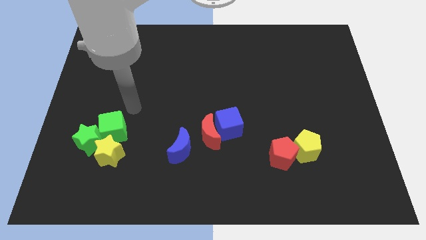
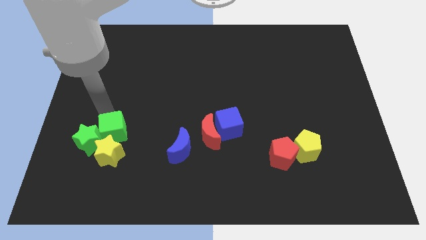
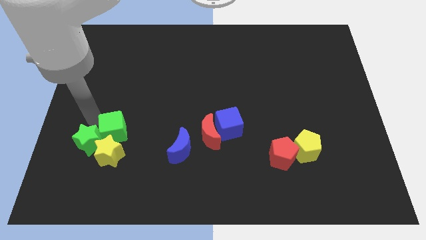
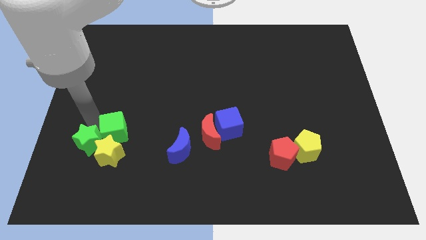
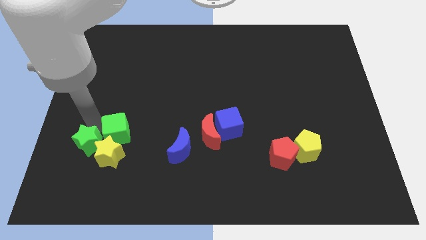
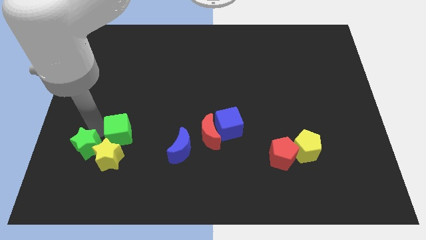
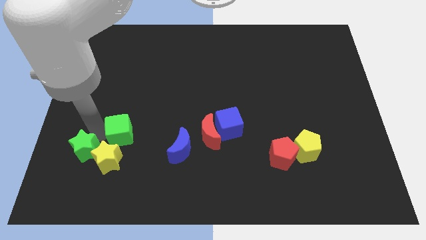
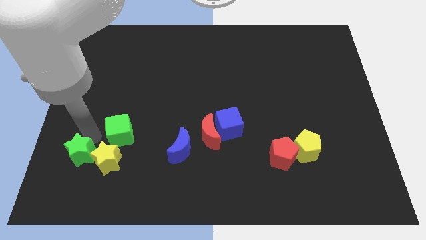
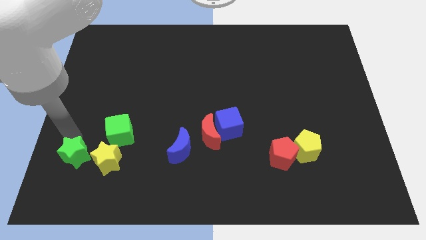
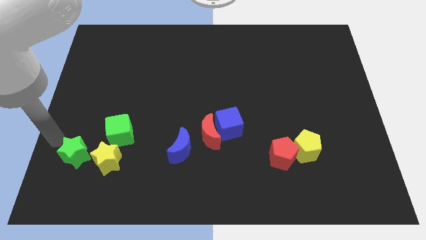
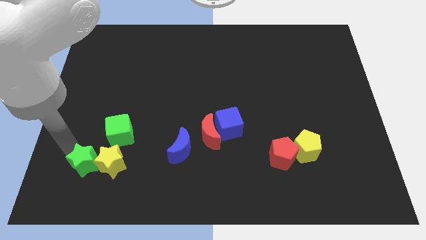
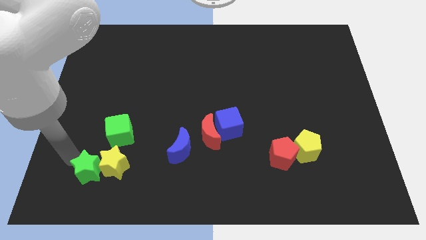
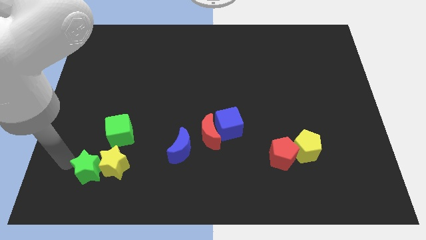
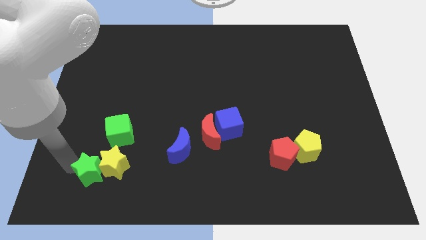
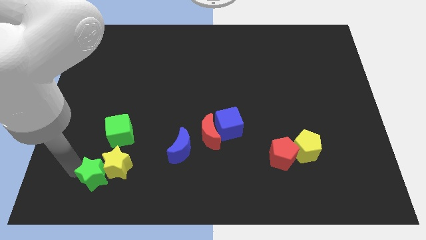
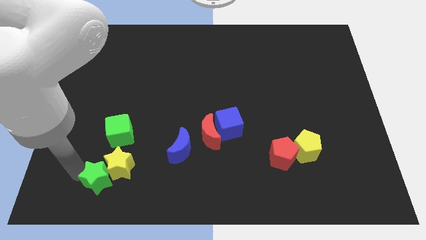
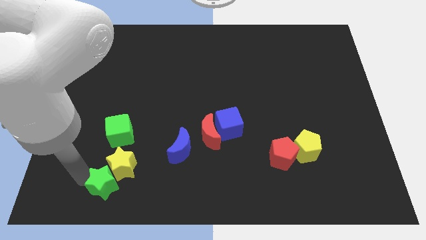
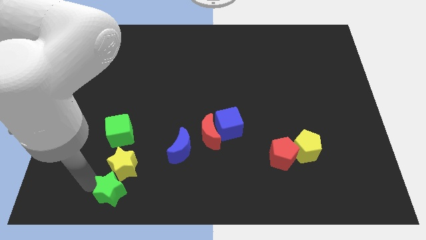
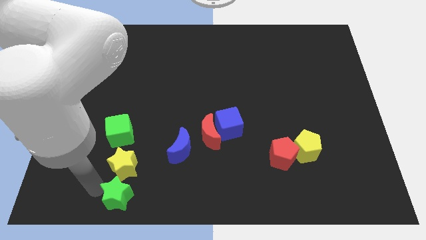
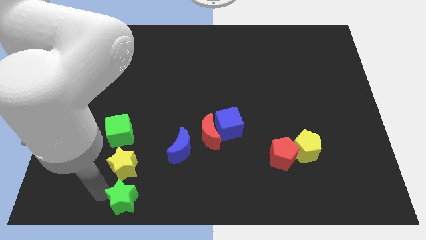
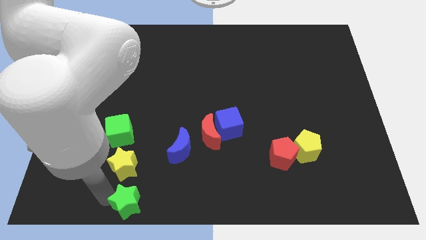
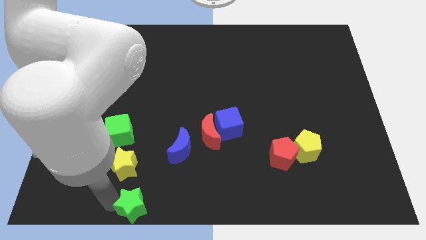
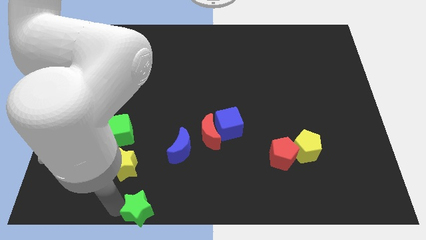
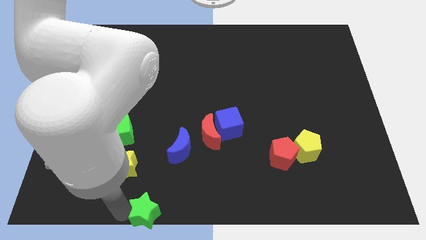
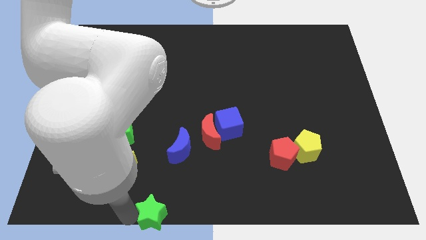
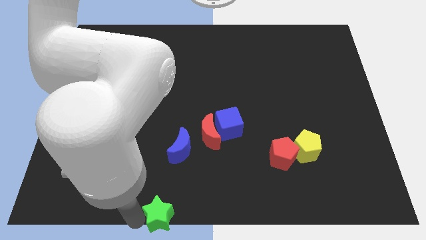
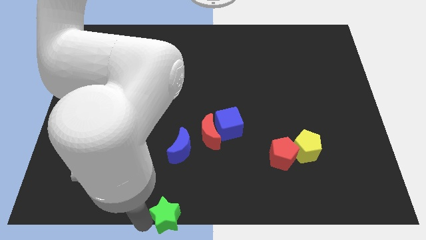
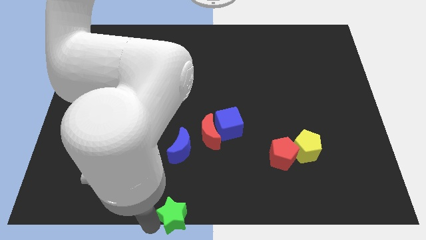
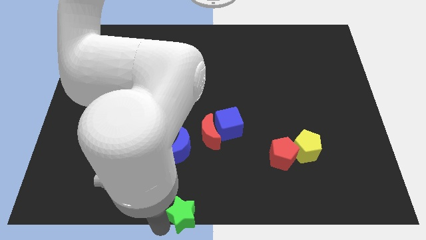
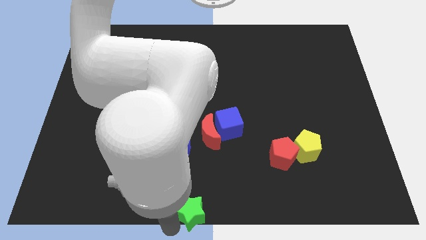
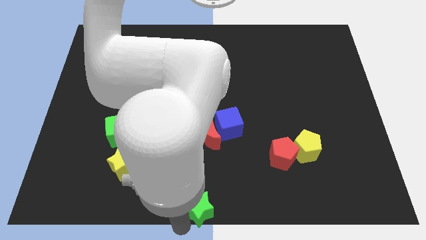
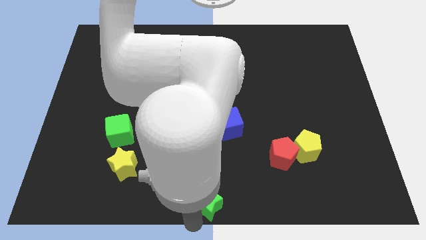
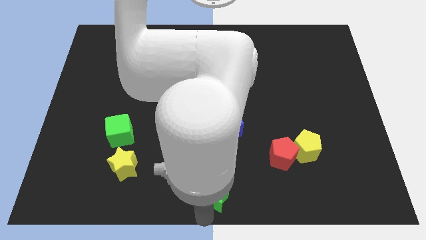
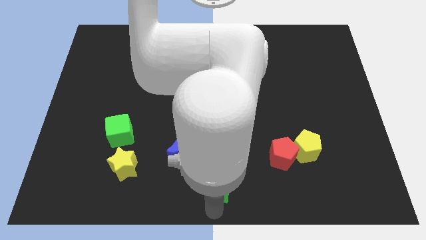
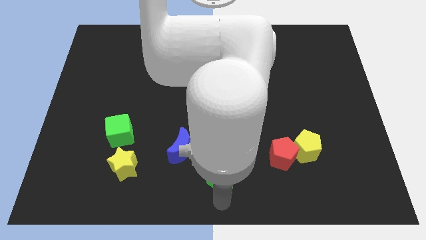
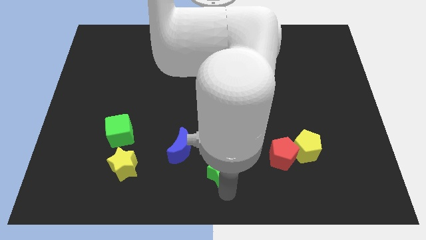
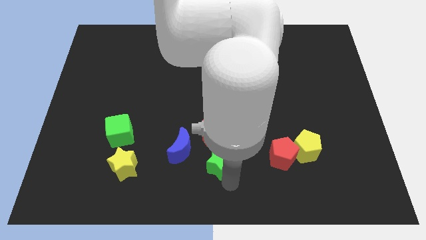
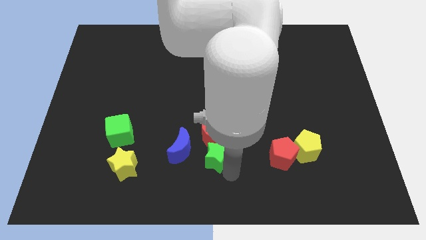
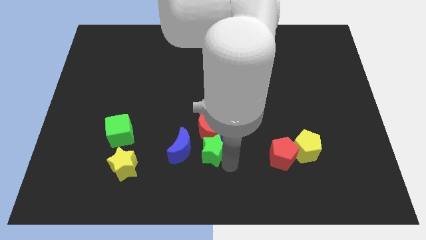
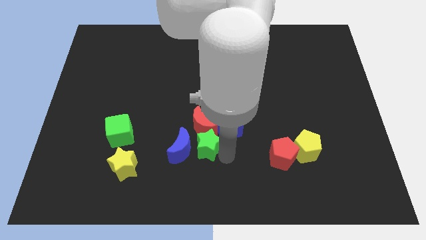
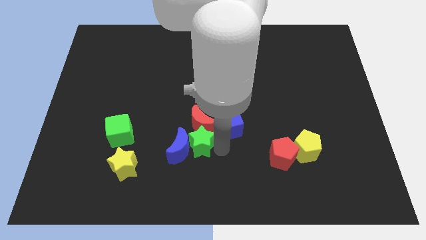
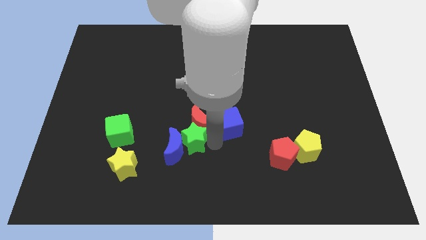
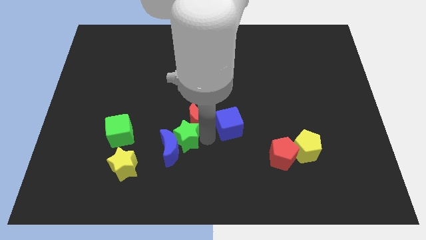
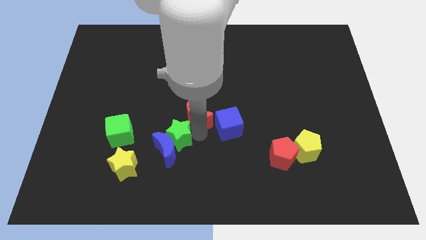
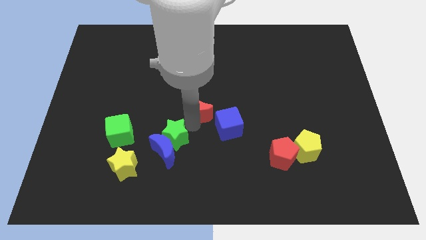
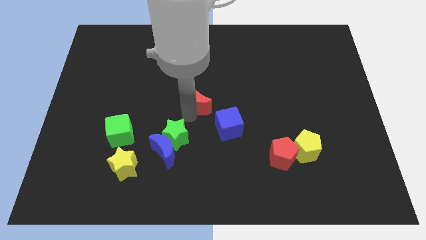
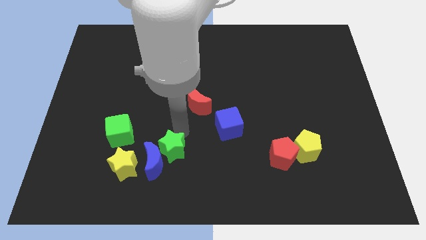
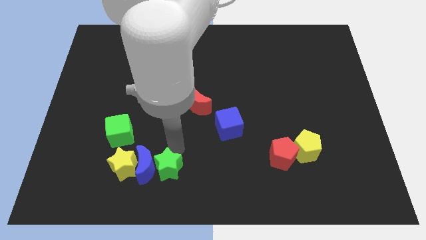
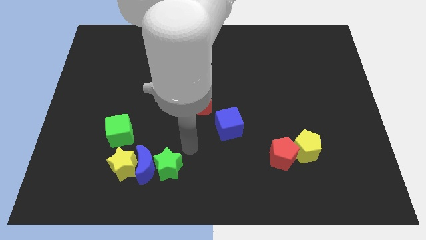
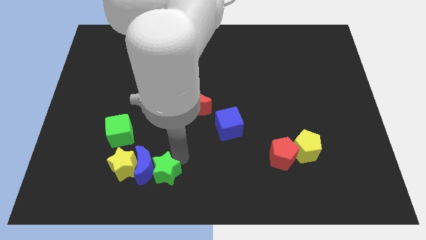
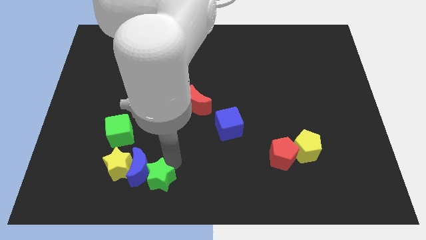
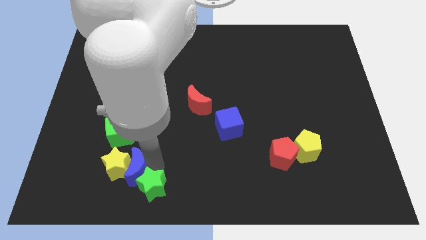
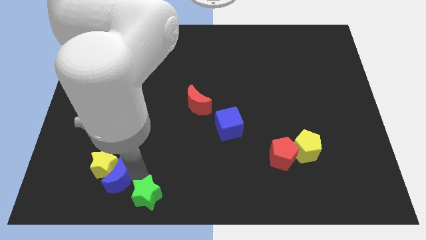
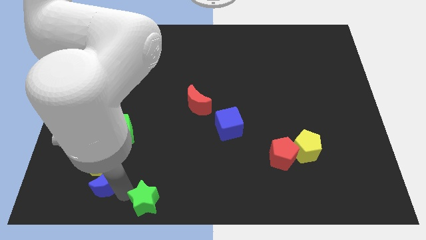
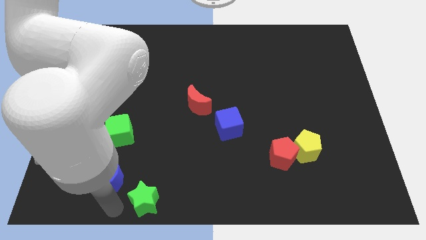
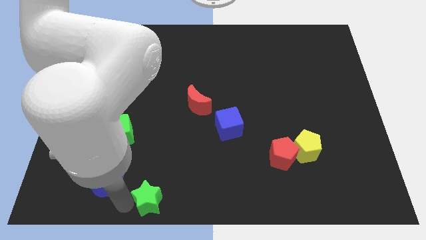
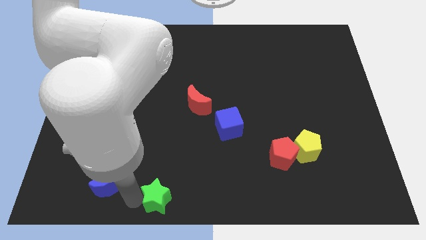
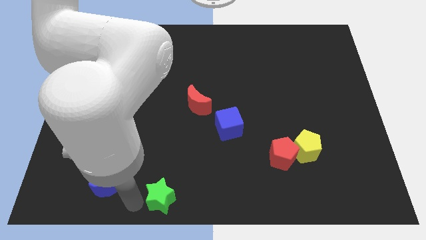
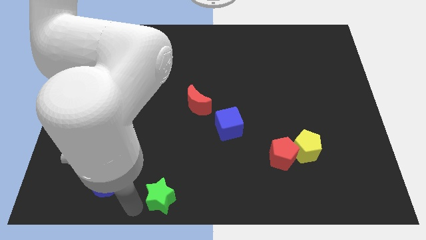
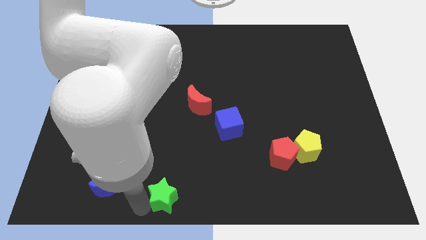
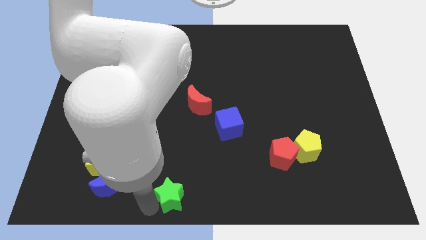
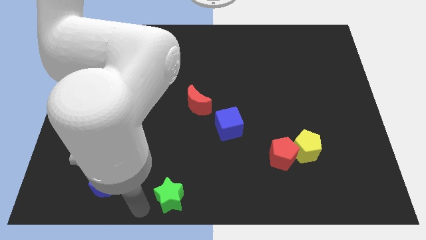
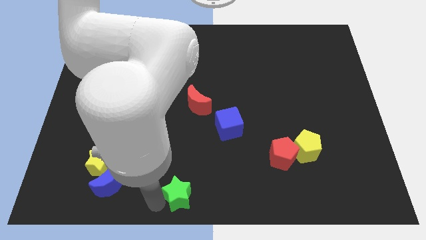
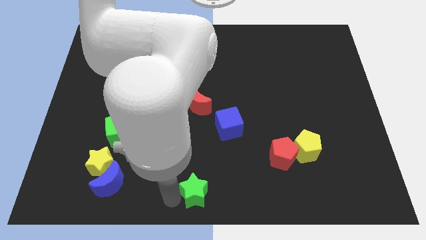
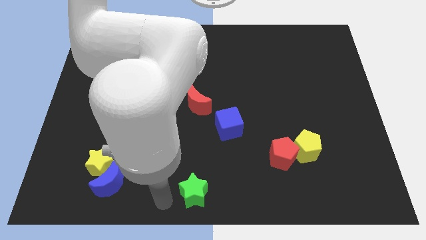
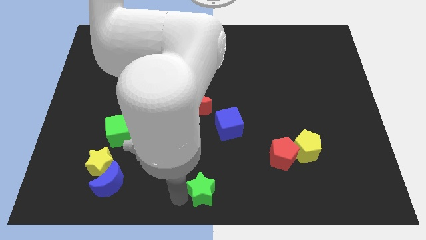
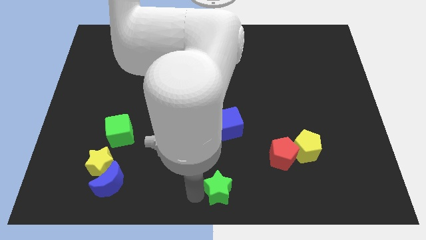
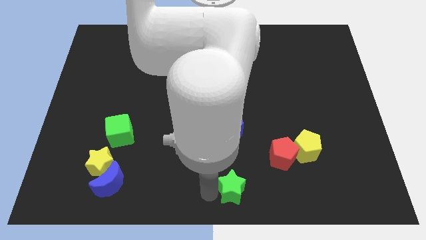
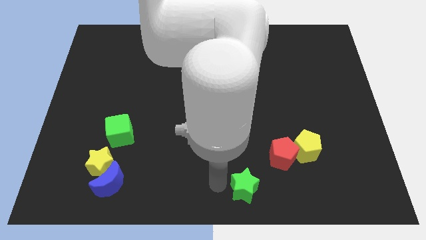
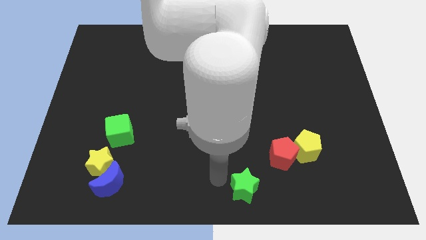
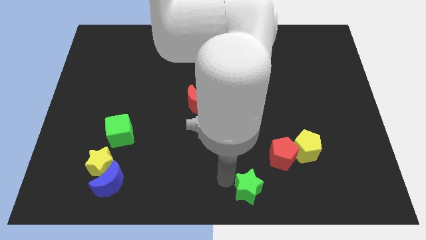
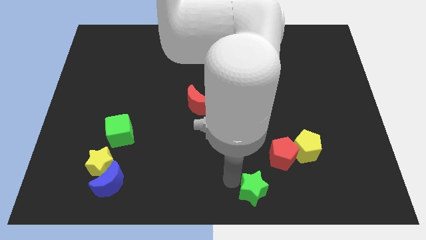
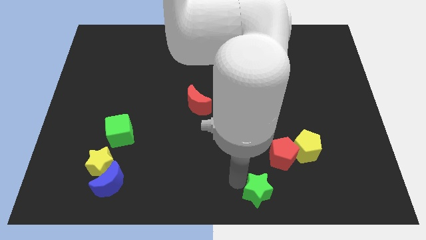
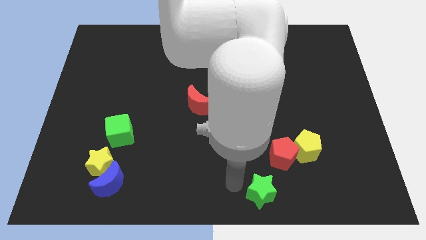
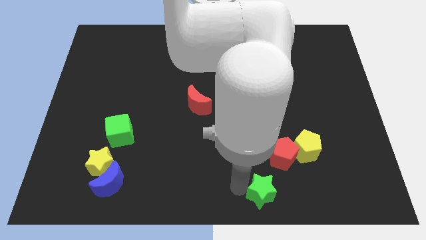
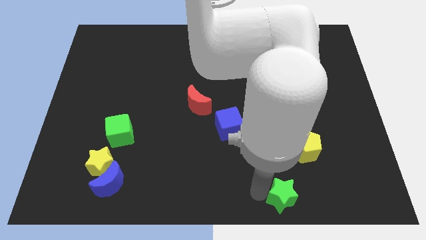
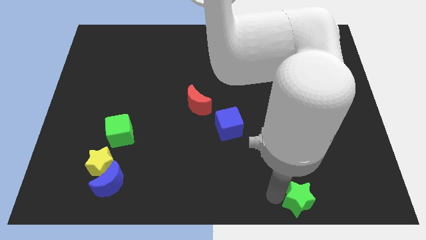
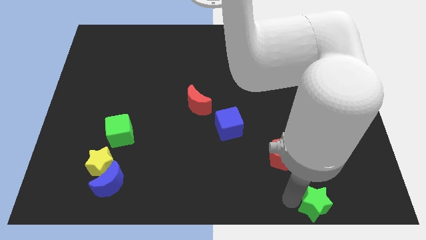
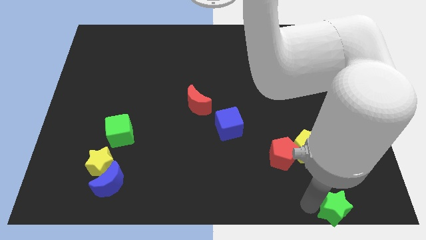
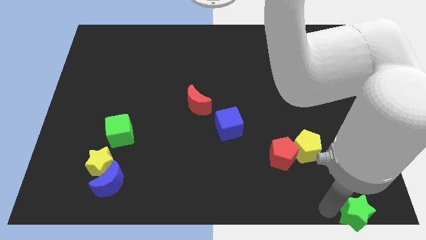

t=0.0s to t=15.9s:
move the green star to the bottom right of the board
